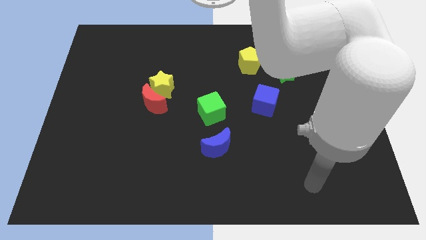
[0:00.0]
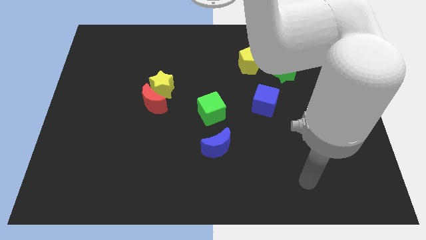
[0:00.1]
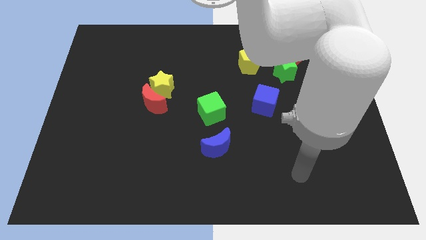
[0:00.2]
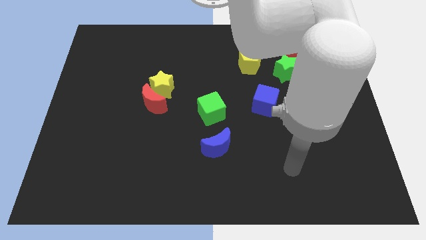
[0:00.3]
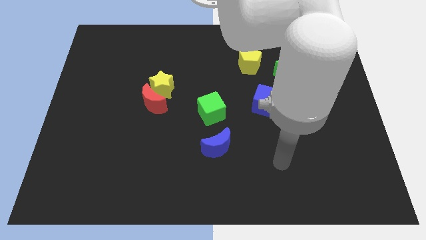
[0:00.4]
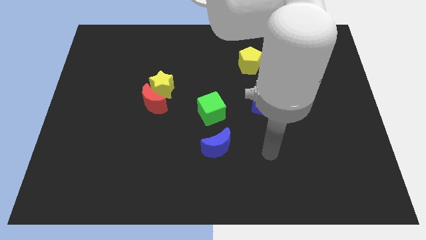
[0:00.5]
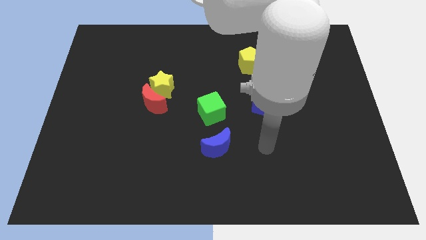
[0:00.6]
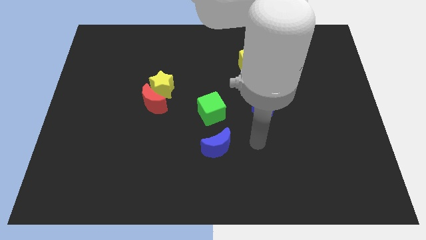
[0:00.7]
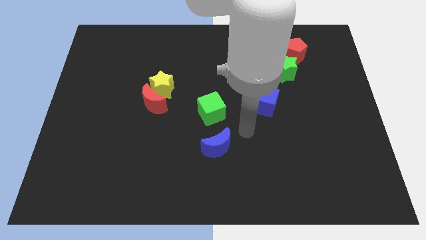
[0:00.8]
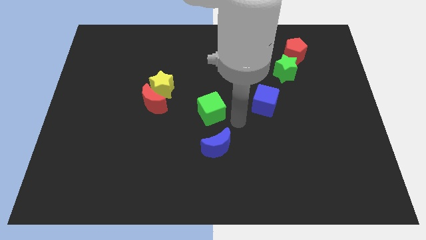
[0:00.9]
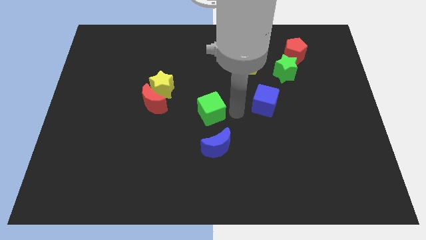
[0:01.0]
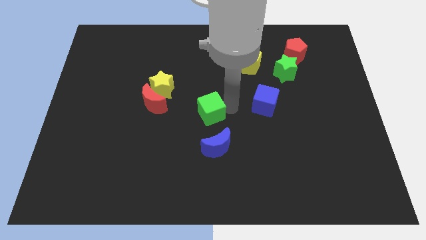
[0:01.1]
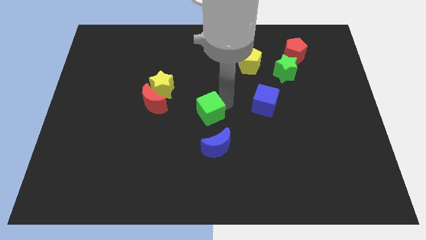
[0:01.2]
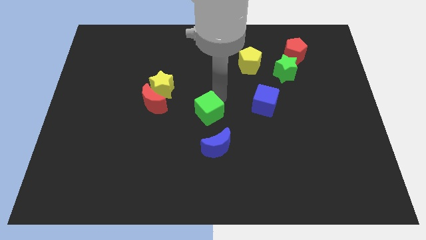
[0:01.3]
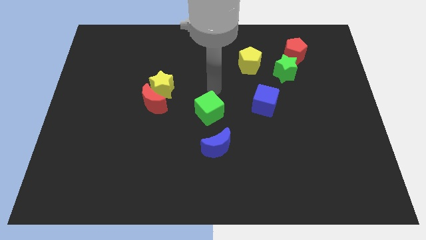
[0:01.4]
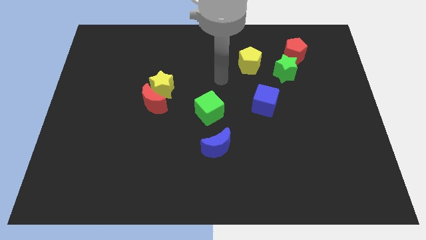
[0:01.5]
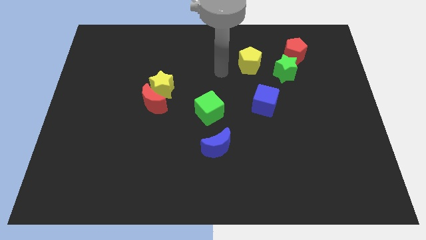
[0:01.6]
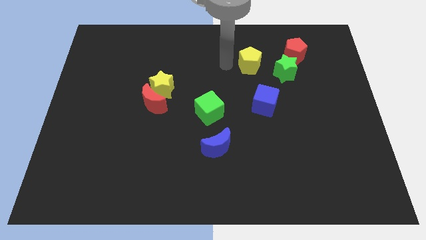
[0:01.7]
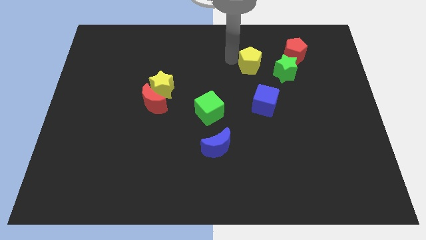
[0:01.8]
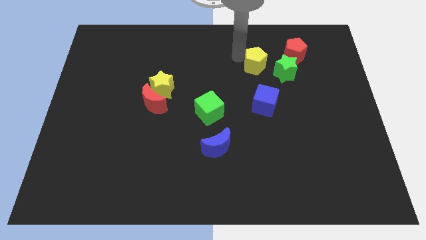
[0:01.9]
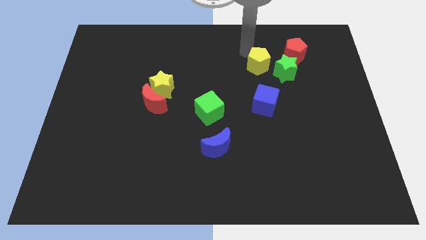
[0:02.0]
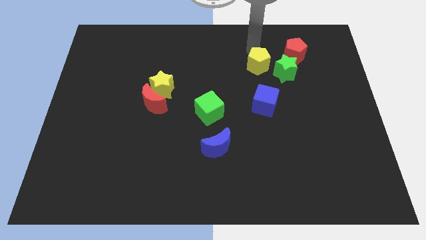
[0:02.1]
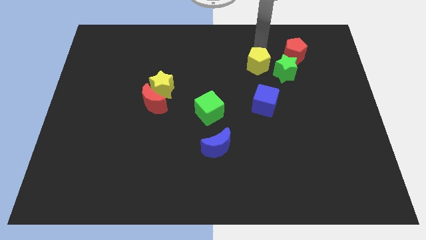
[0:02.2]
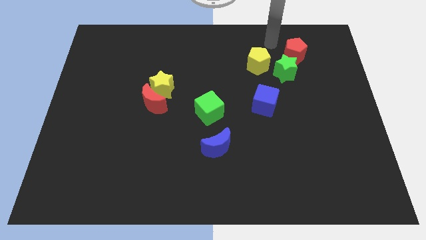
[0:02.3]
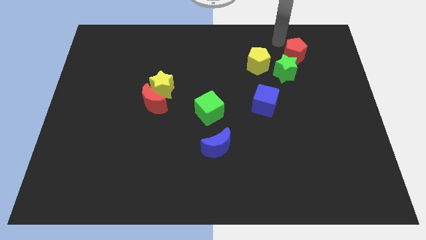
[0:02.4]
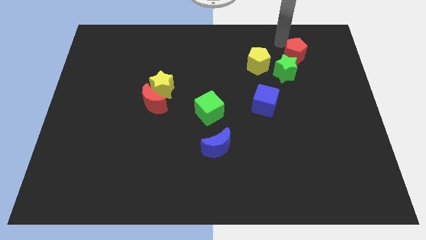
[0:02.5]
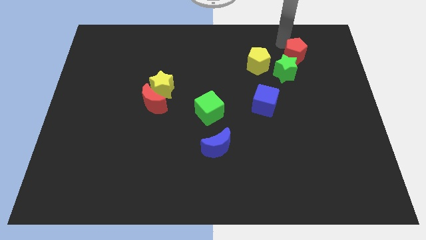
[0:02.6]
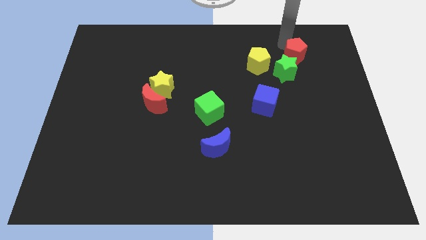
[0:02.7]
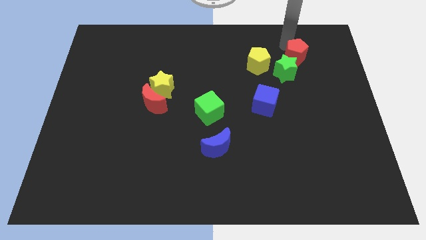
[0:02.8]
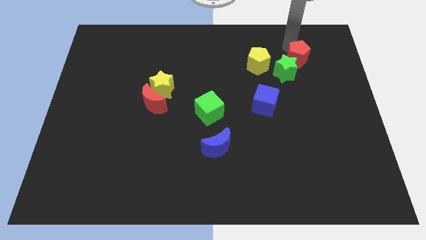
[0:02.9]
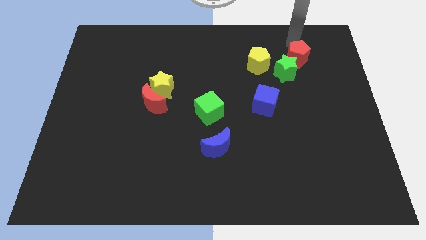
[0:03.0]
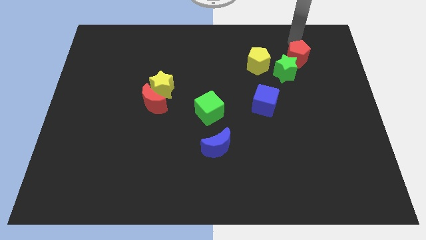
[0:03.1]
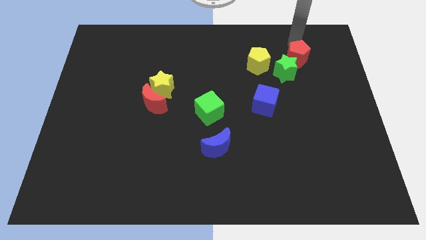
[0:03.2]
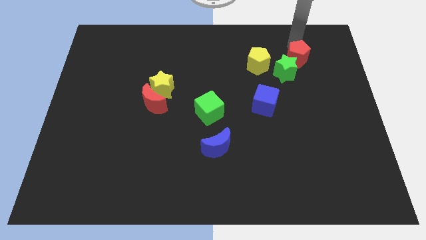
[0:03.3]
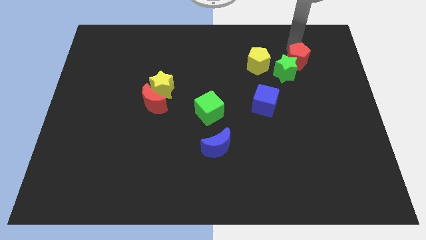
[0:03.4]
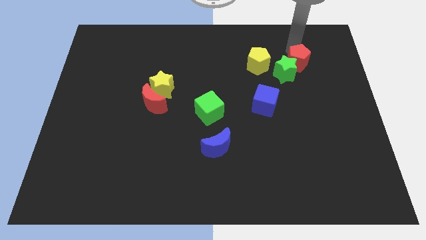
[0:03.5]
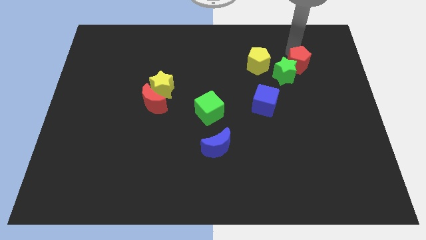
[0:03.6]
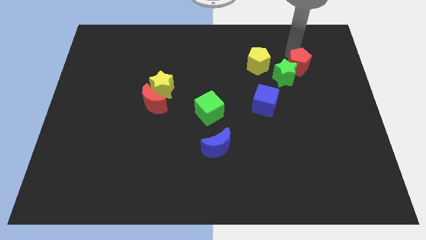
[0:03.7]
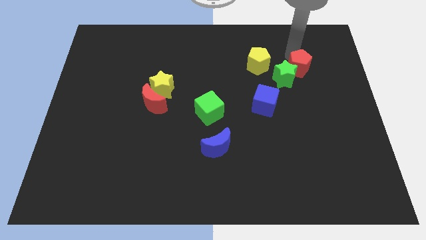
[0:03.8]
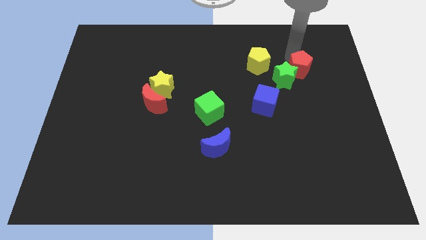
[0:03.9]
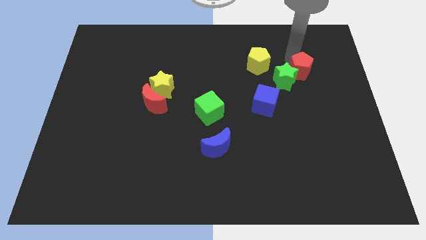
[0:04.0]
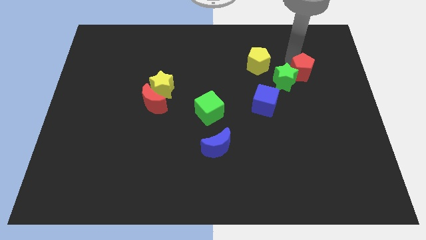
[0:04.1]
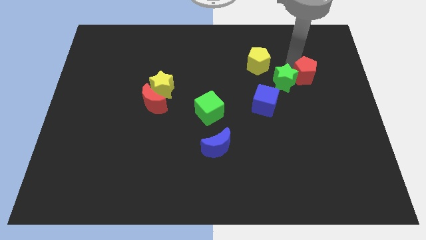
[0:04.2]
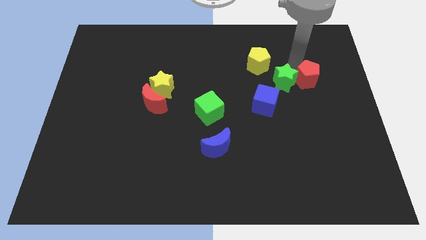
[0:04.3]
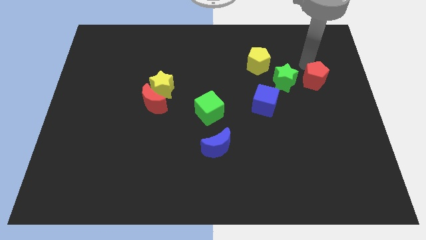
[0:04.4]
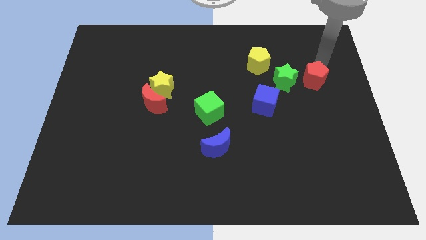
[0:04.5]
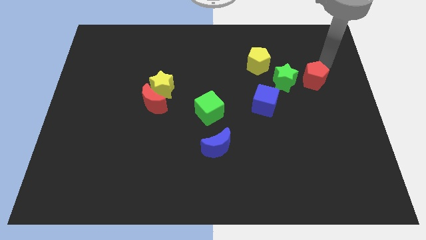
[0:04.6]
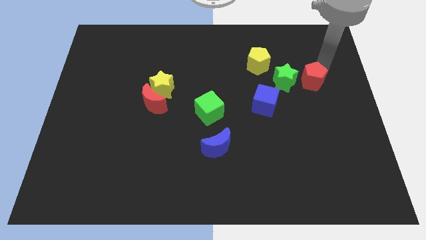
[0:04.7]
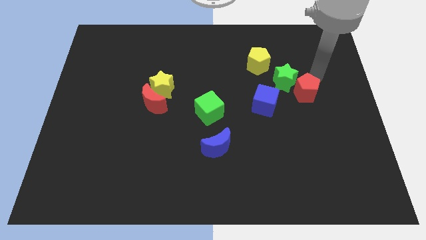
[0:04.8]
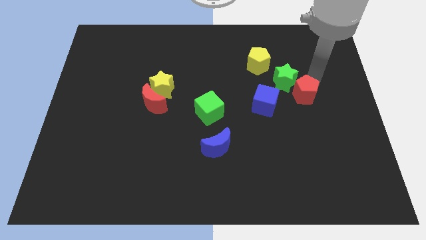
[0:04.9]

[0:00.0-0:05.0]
put the red pentagon to the bottom of the green star

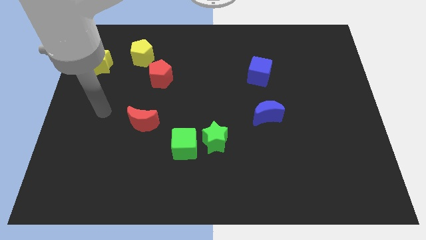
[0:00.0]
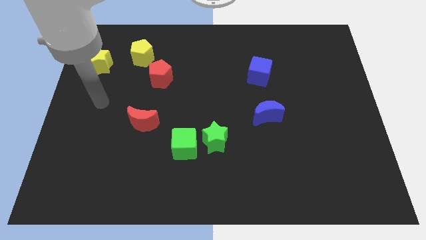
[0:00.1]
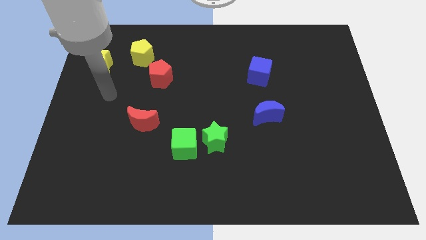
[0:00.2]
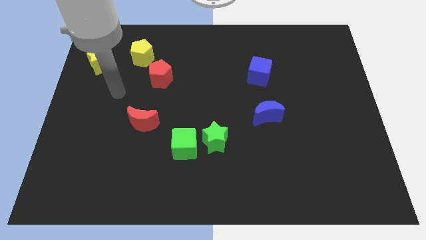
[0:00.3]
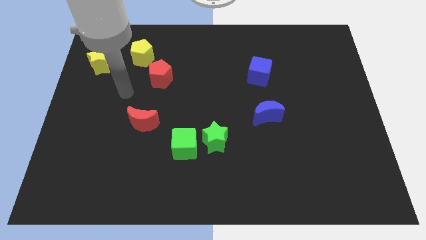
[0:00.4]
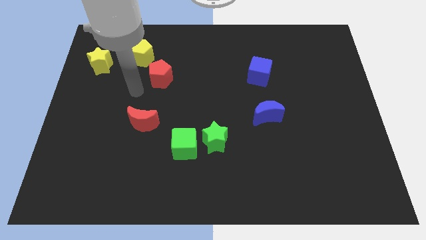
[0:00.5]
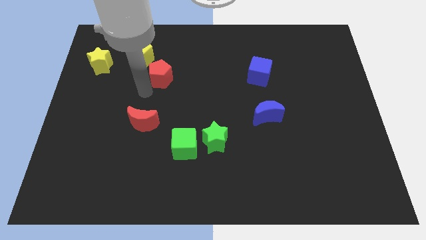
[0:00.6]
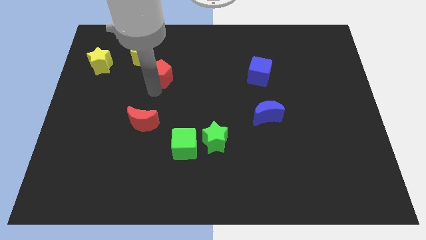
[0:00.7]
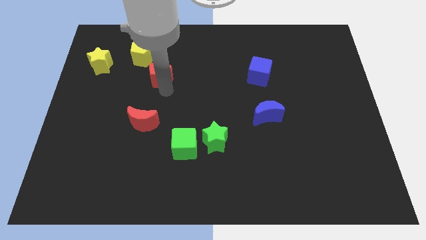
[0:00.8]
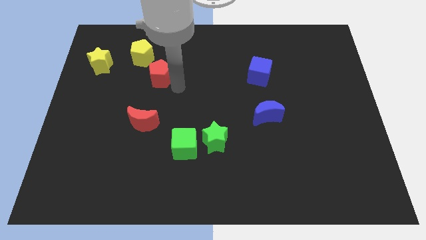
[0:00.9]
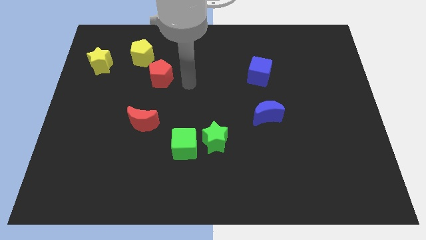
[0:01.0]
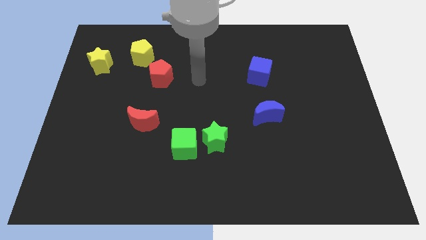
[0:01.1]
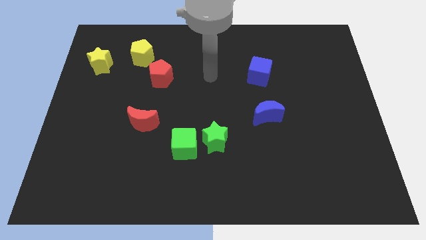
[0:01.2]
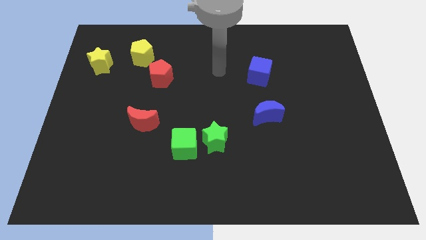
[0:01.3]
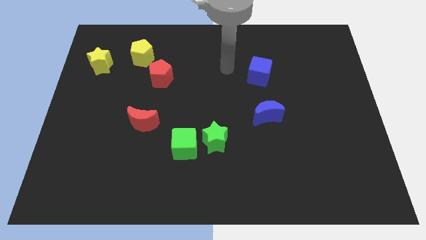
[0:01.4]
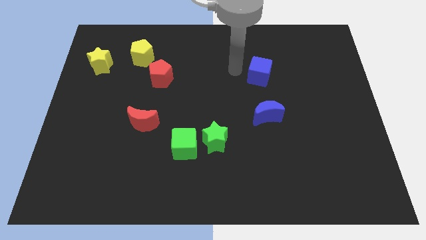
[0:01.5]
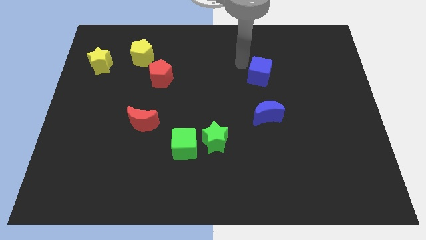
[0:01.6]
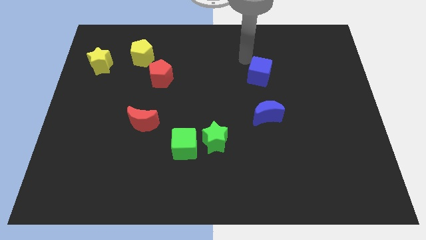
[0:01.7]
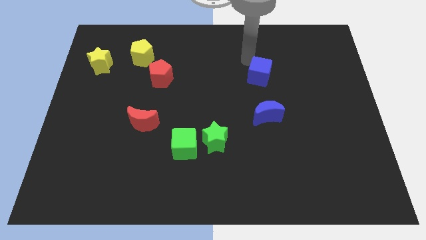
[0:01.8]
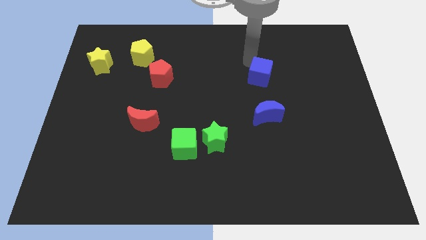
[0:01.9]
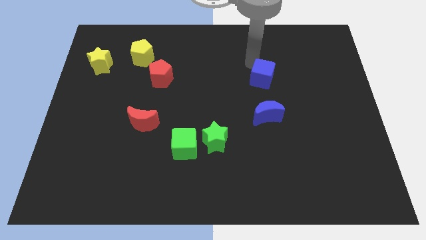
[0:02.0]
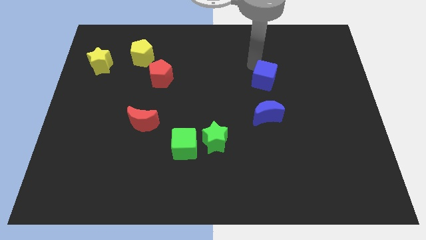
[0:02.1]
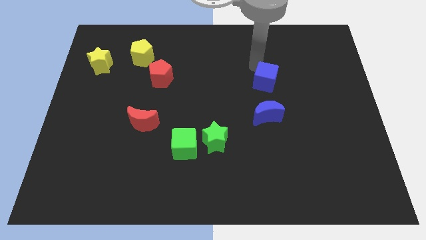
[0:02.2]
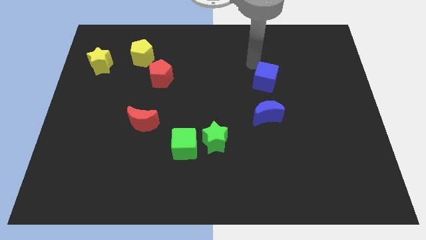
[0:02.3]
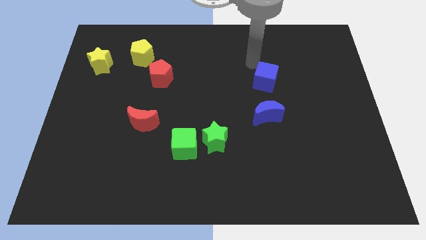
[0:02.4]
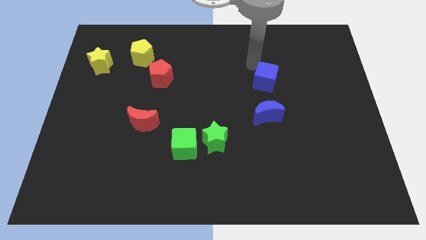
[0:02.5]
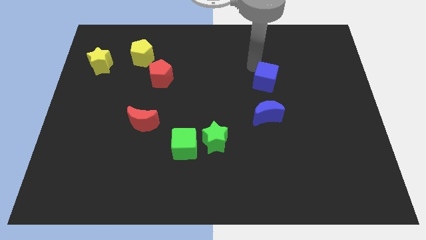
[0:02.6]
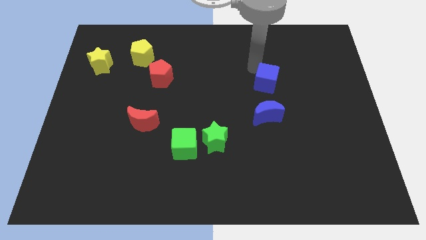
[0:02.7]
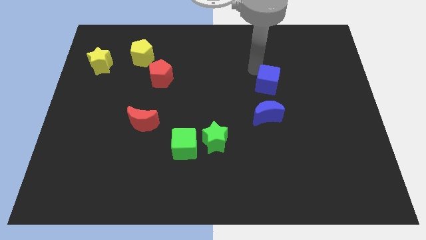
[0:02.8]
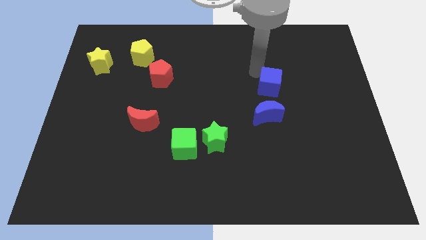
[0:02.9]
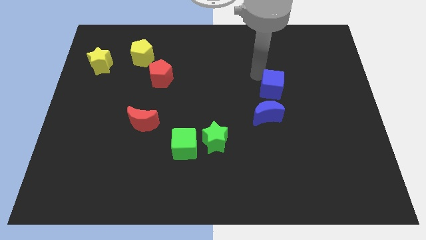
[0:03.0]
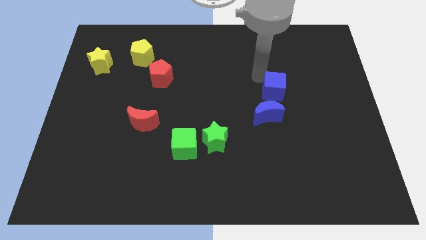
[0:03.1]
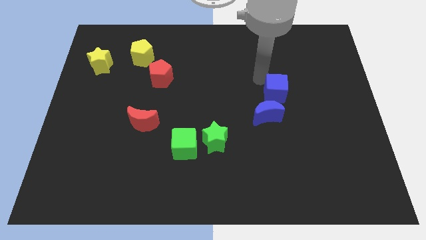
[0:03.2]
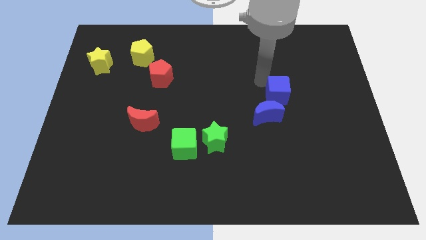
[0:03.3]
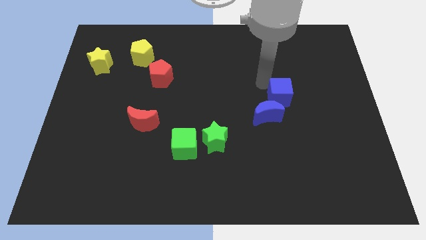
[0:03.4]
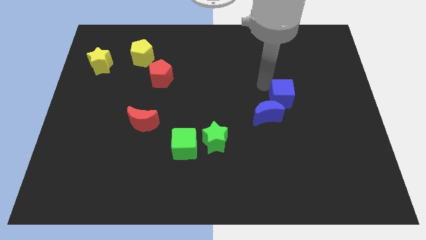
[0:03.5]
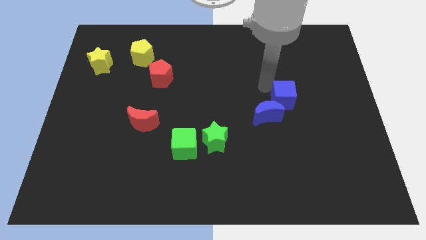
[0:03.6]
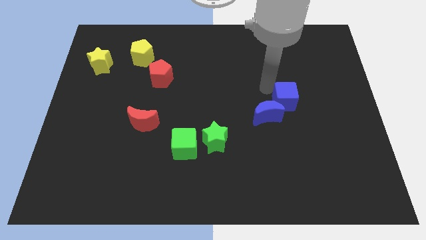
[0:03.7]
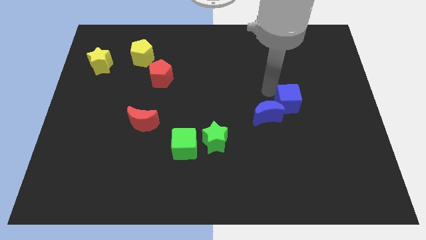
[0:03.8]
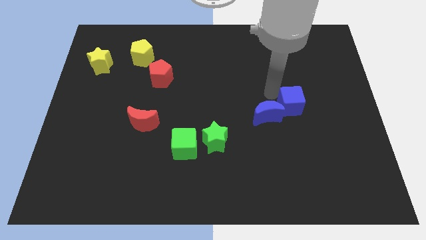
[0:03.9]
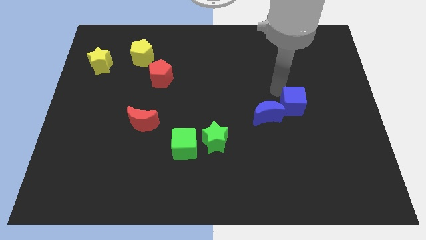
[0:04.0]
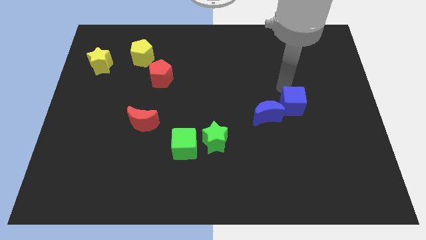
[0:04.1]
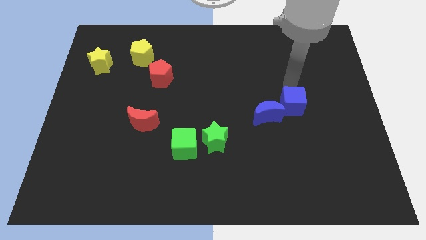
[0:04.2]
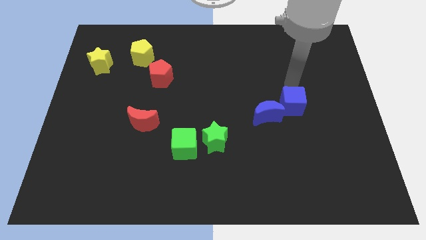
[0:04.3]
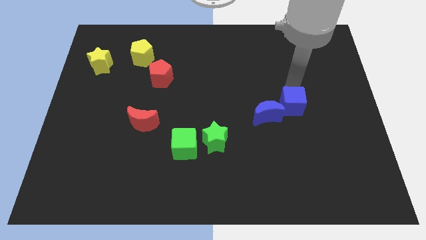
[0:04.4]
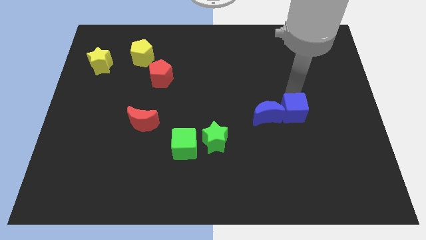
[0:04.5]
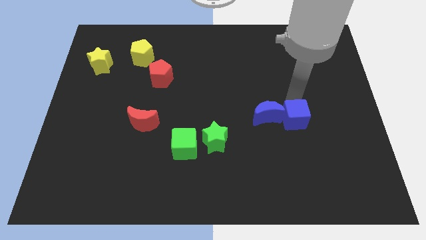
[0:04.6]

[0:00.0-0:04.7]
move the blue cube diagonally down and to the right of the blue moon
